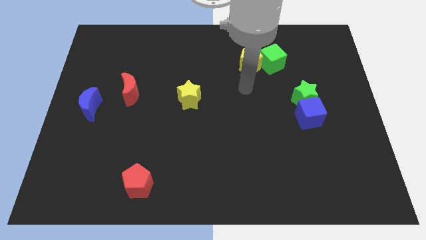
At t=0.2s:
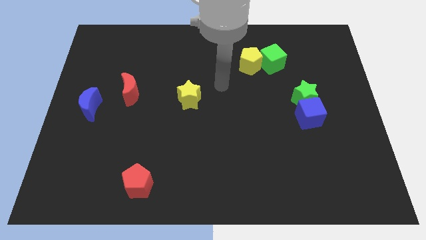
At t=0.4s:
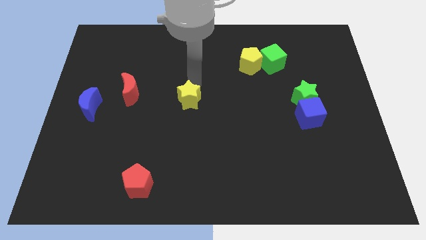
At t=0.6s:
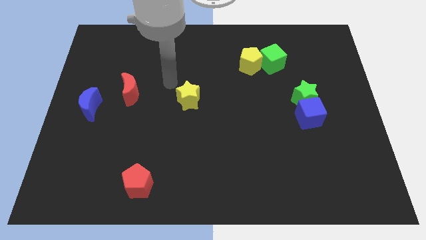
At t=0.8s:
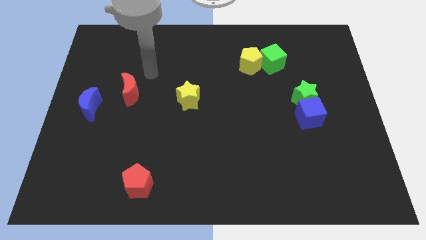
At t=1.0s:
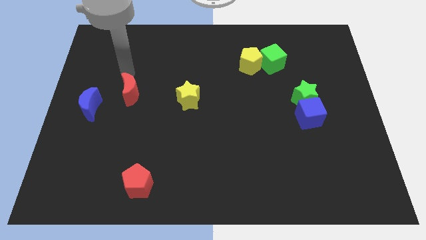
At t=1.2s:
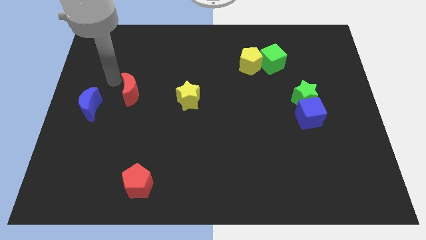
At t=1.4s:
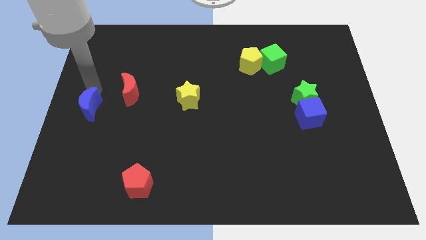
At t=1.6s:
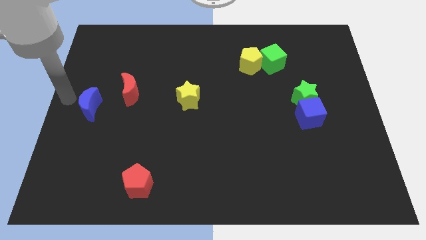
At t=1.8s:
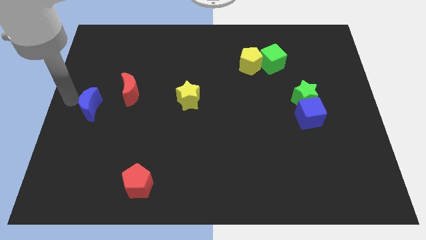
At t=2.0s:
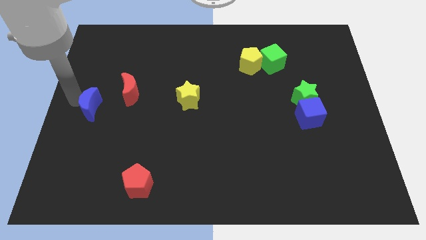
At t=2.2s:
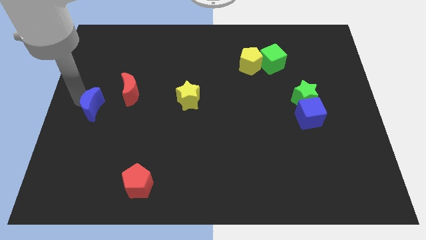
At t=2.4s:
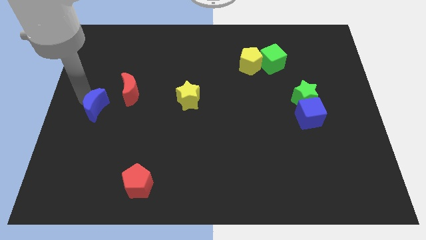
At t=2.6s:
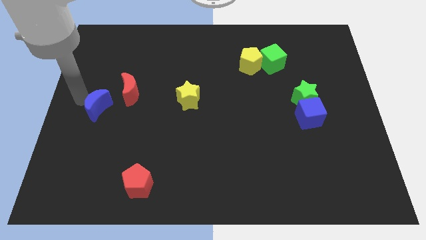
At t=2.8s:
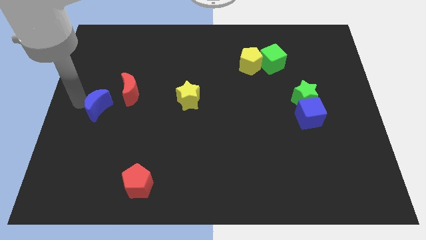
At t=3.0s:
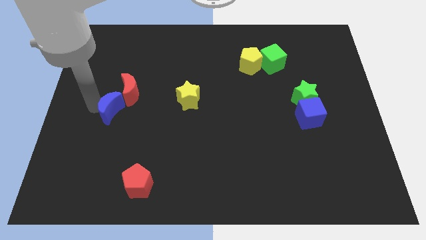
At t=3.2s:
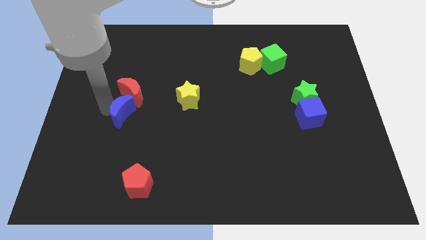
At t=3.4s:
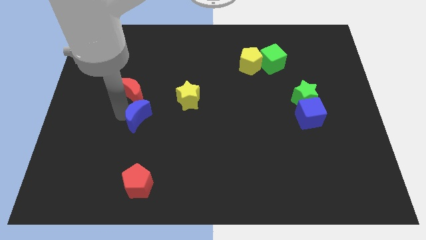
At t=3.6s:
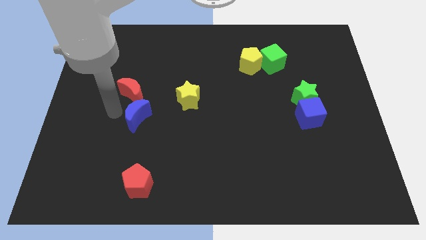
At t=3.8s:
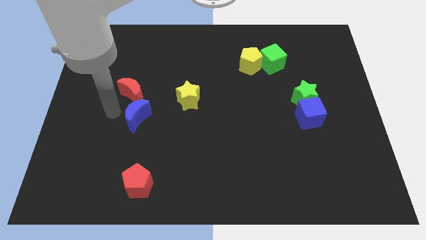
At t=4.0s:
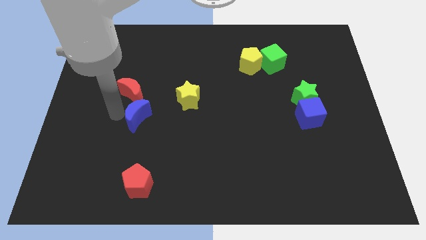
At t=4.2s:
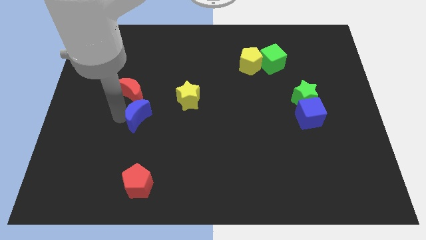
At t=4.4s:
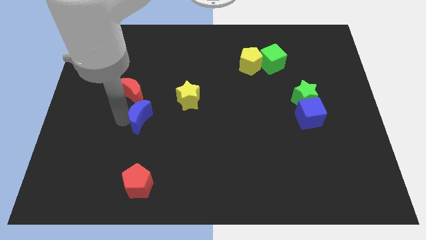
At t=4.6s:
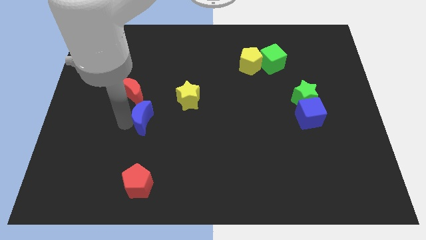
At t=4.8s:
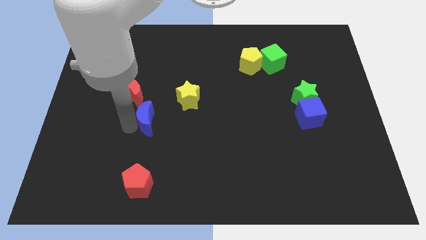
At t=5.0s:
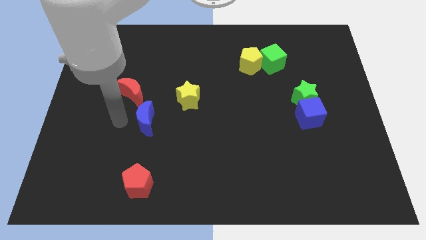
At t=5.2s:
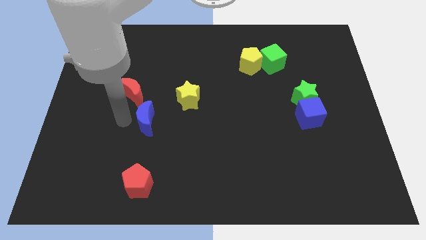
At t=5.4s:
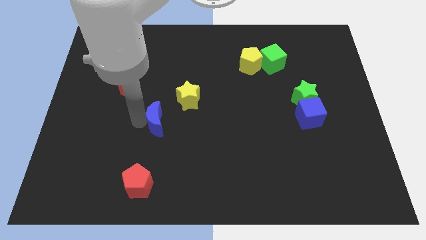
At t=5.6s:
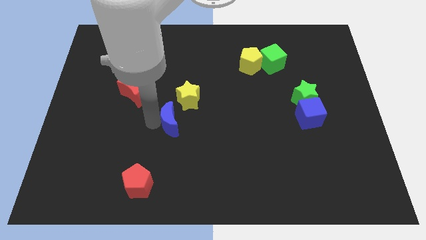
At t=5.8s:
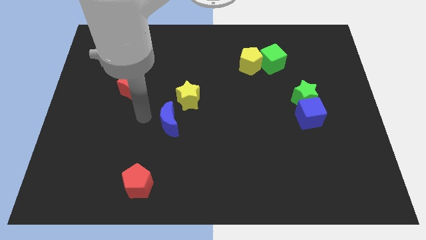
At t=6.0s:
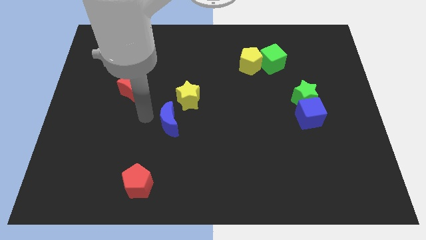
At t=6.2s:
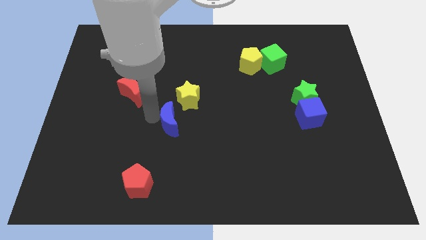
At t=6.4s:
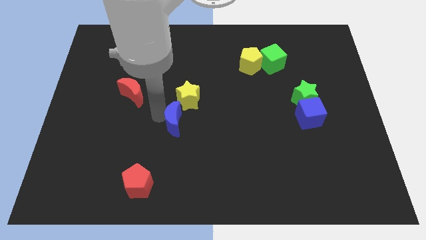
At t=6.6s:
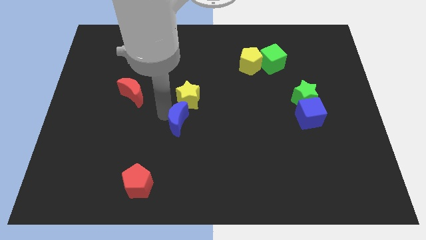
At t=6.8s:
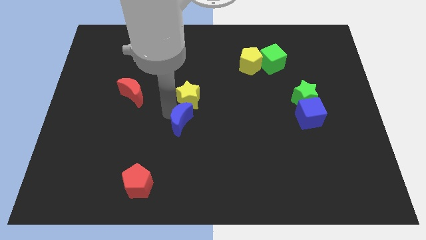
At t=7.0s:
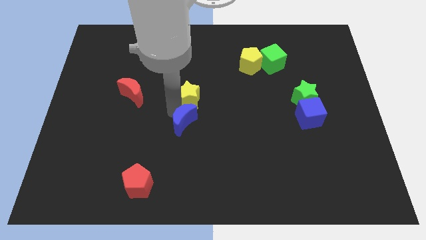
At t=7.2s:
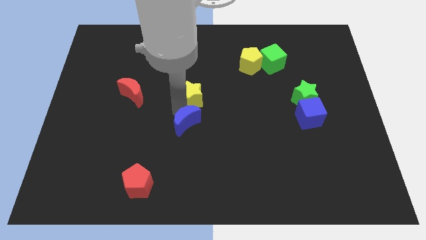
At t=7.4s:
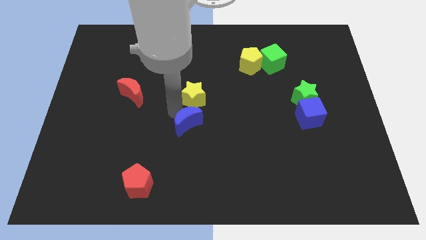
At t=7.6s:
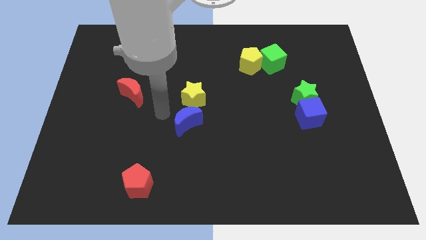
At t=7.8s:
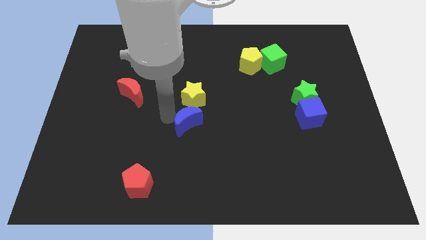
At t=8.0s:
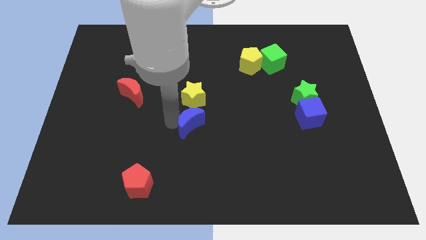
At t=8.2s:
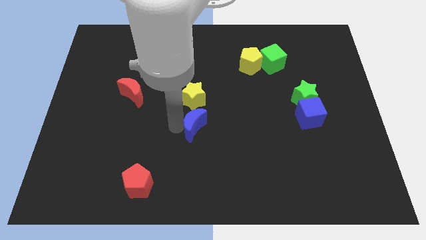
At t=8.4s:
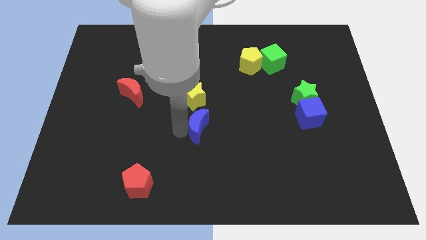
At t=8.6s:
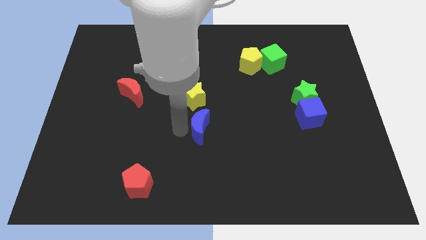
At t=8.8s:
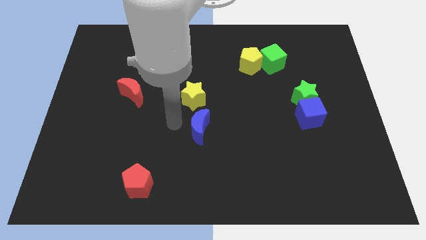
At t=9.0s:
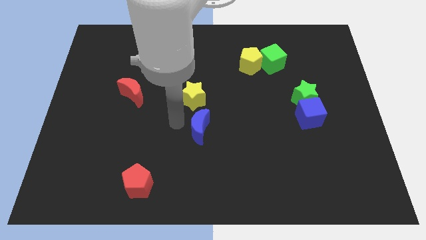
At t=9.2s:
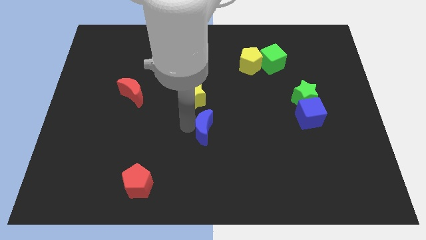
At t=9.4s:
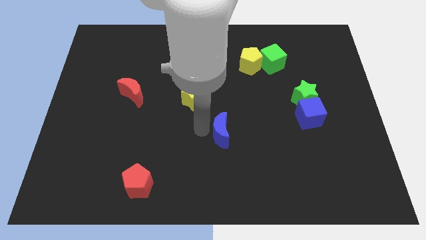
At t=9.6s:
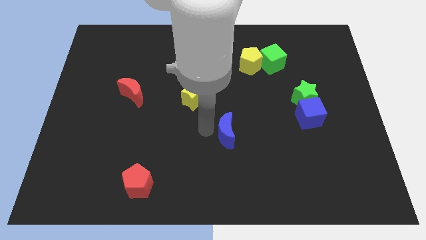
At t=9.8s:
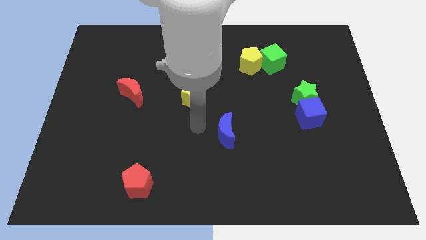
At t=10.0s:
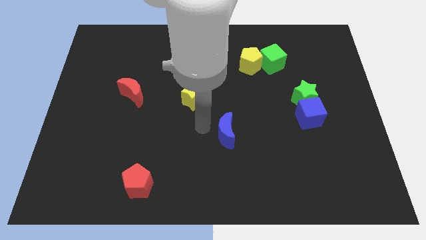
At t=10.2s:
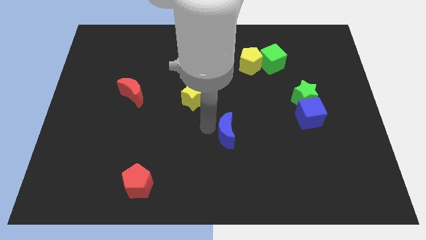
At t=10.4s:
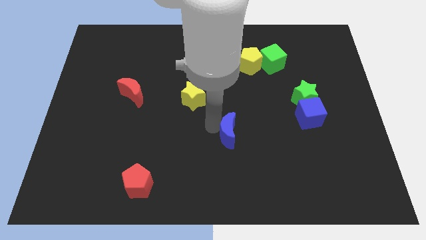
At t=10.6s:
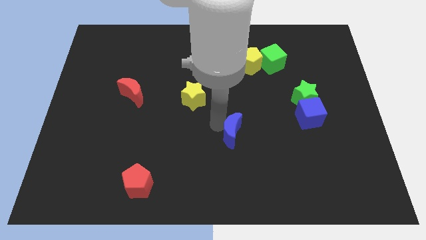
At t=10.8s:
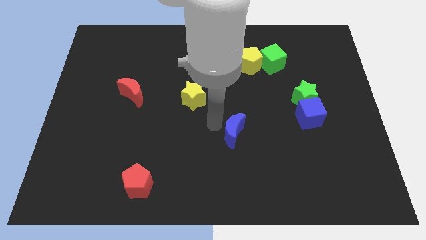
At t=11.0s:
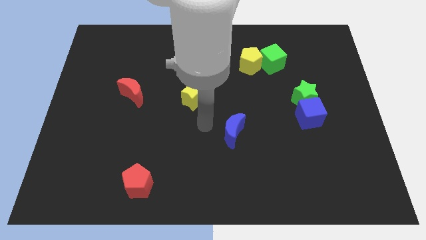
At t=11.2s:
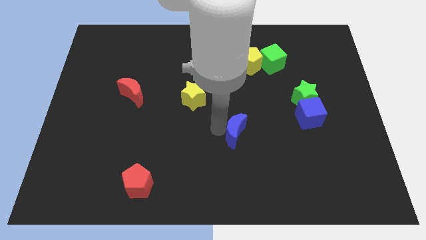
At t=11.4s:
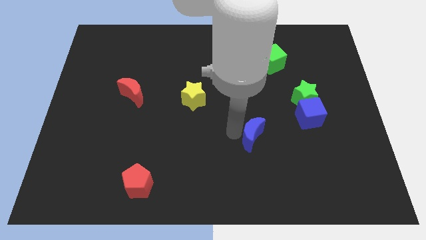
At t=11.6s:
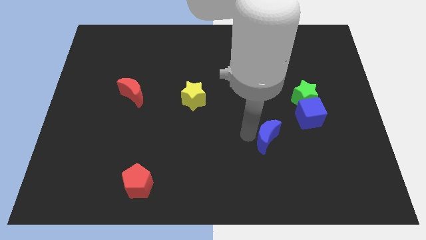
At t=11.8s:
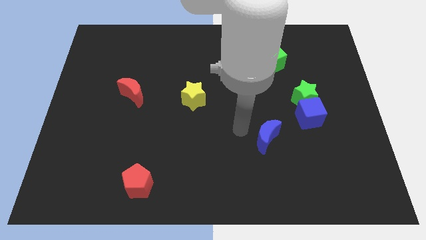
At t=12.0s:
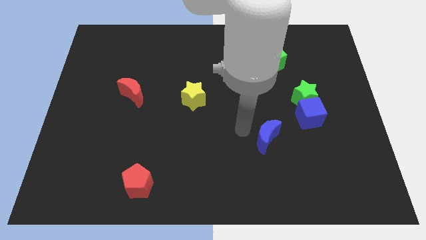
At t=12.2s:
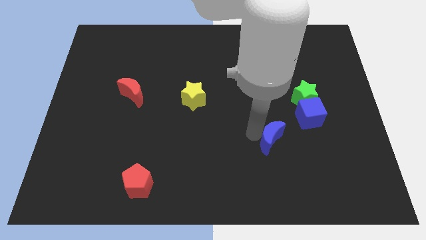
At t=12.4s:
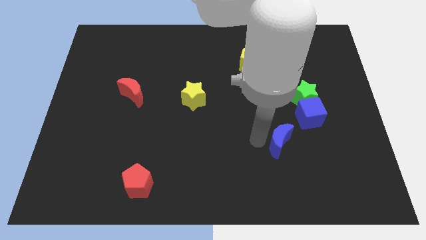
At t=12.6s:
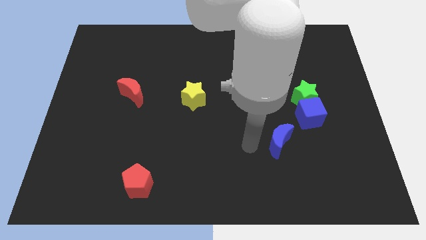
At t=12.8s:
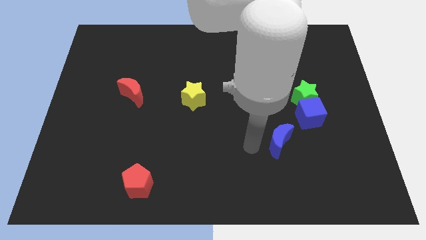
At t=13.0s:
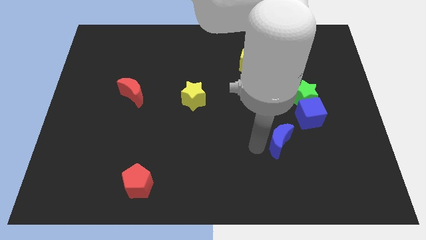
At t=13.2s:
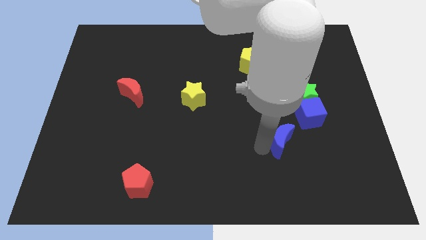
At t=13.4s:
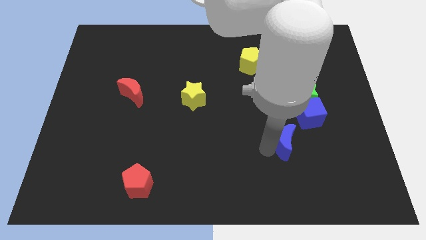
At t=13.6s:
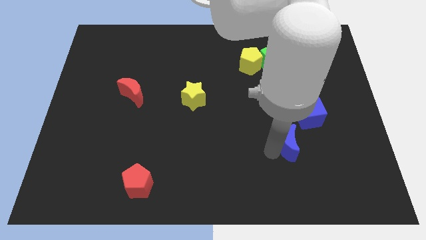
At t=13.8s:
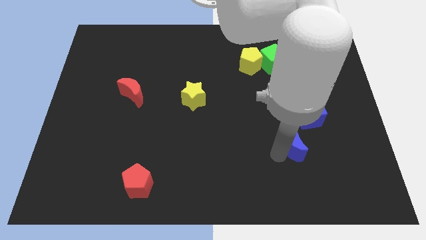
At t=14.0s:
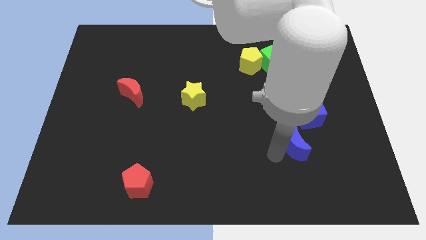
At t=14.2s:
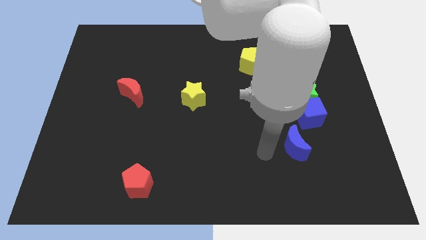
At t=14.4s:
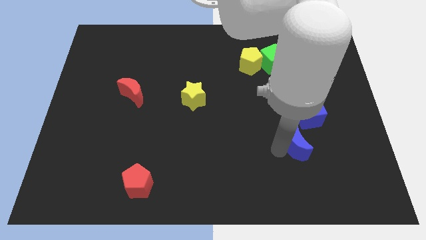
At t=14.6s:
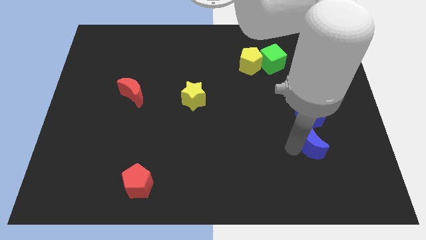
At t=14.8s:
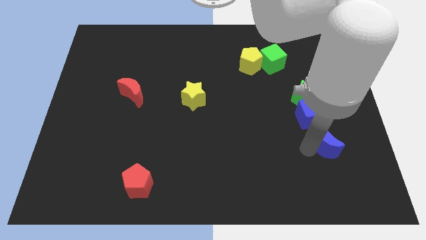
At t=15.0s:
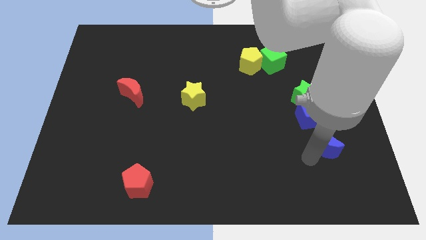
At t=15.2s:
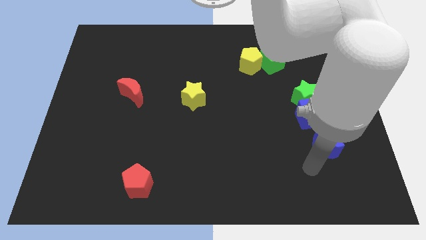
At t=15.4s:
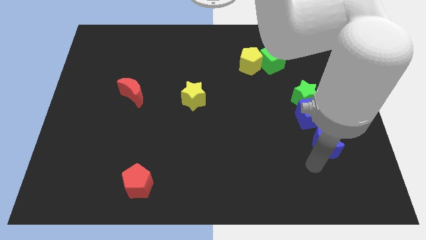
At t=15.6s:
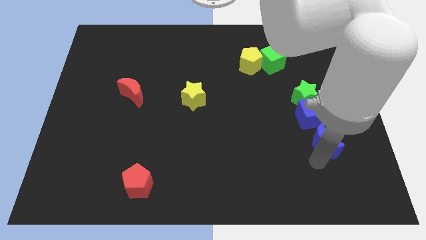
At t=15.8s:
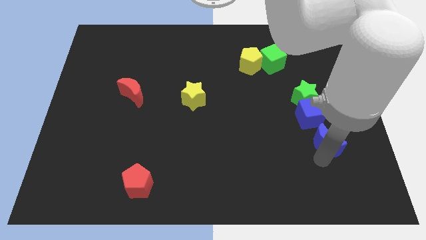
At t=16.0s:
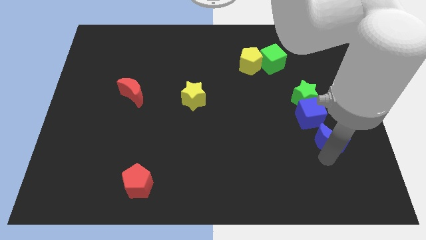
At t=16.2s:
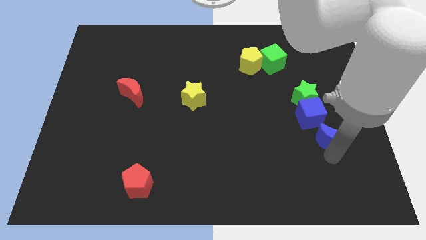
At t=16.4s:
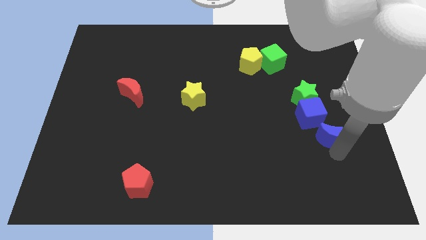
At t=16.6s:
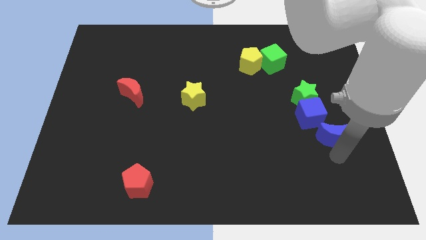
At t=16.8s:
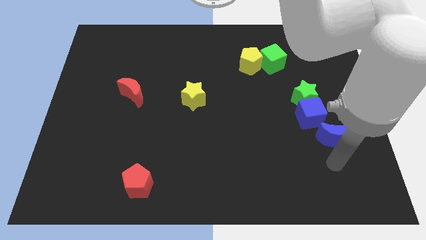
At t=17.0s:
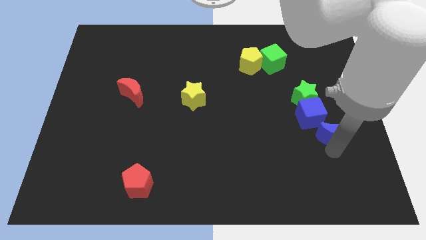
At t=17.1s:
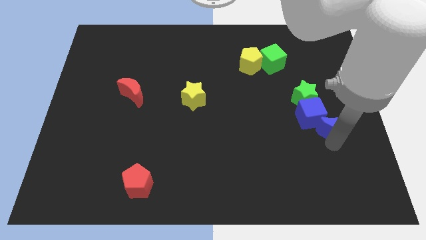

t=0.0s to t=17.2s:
move the blue moon diagonally down and to the right of the green star
